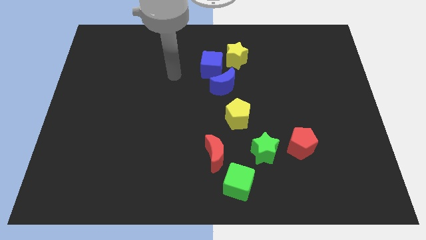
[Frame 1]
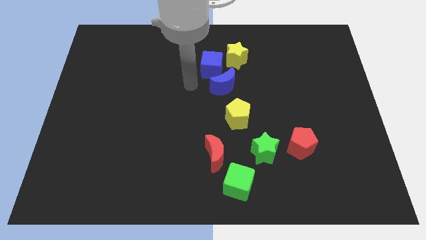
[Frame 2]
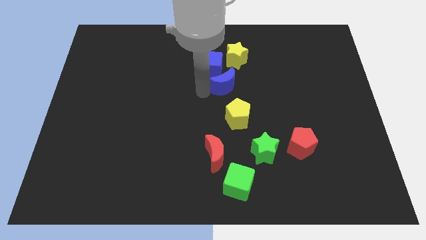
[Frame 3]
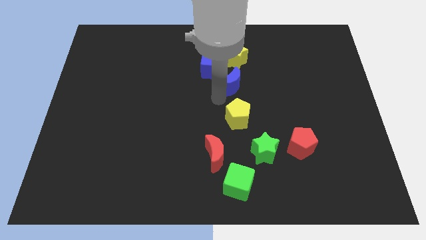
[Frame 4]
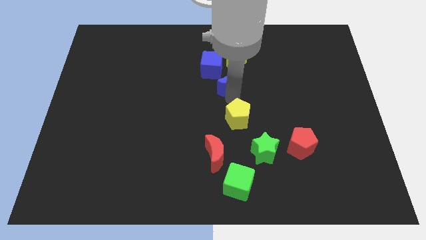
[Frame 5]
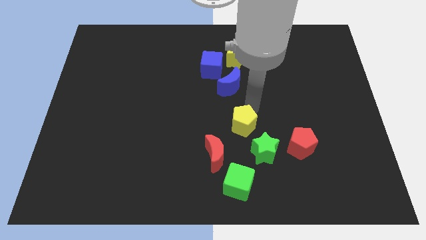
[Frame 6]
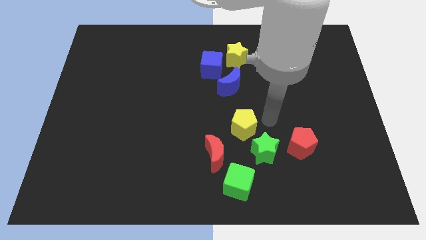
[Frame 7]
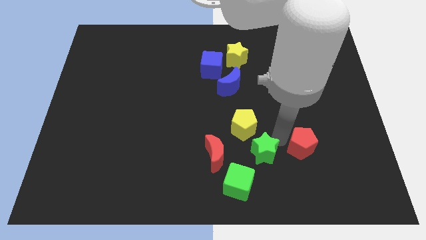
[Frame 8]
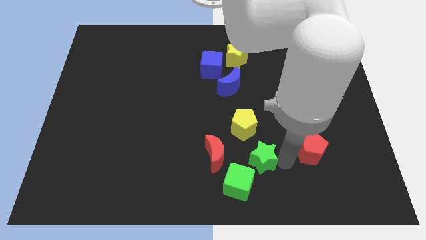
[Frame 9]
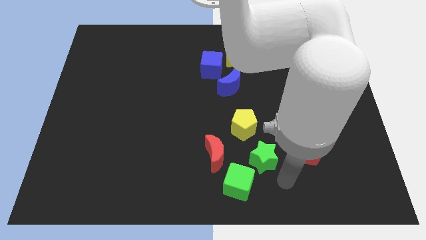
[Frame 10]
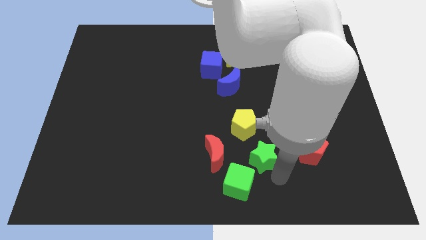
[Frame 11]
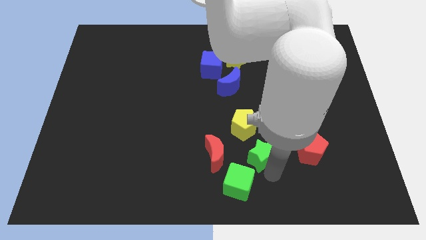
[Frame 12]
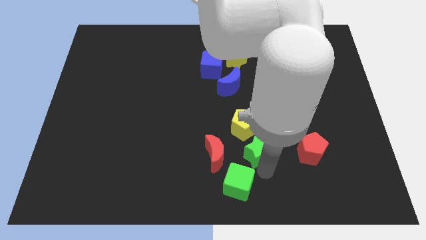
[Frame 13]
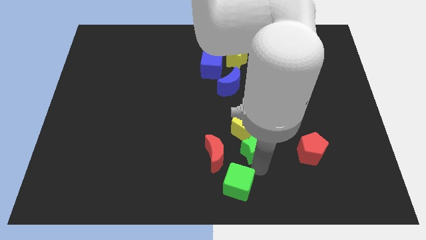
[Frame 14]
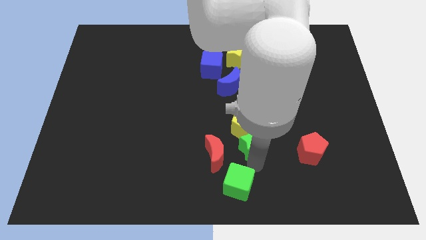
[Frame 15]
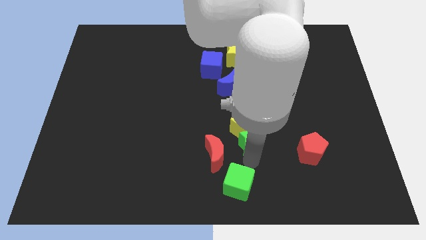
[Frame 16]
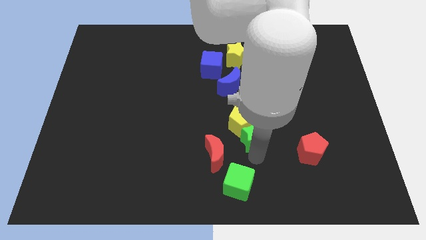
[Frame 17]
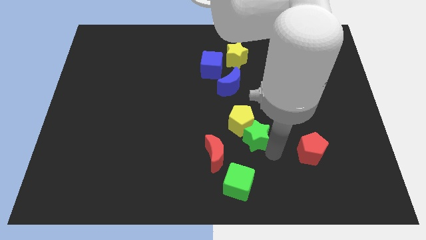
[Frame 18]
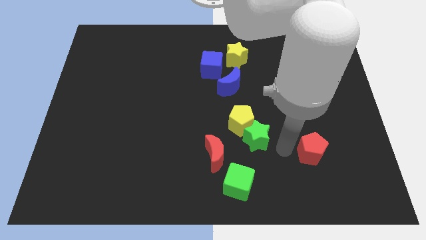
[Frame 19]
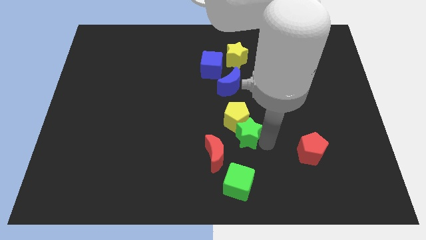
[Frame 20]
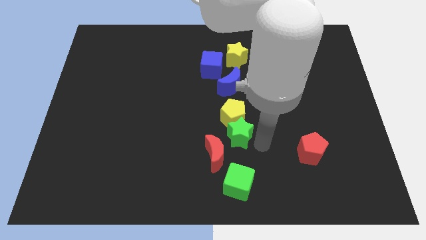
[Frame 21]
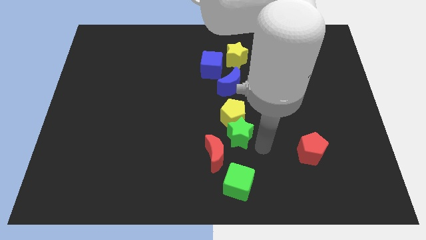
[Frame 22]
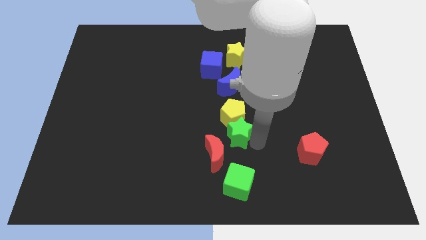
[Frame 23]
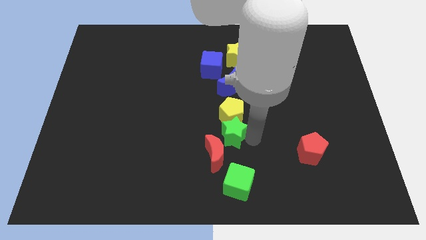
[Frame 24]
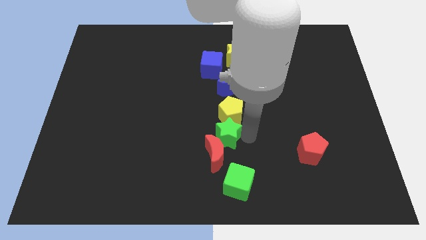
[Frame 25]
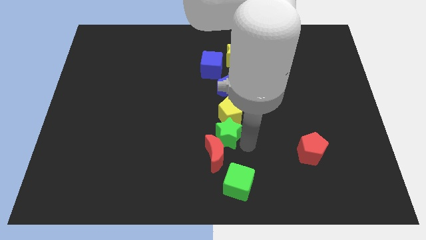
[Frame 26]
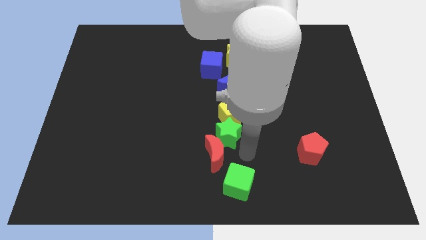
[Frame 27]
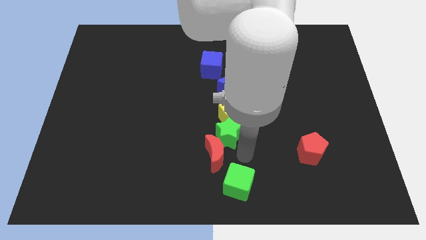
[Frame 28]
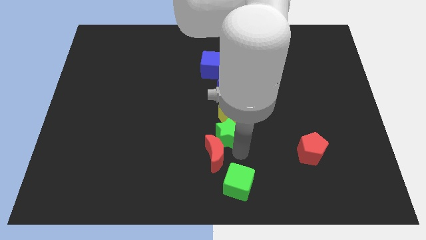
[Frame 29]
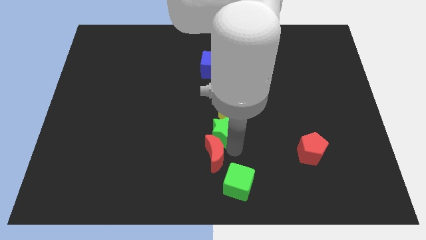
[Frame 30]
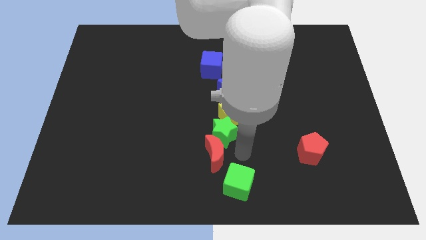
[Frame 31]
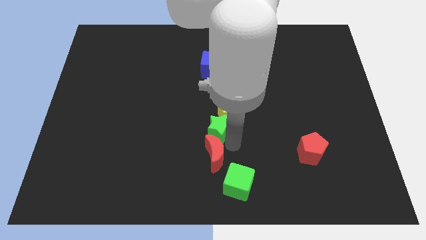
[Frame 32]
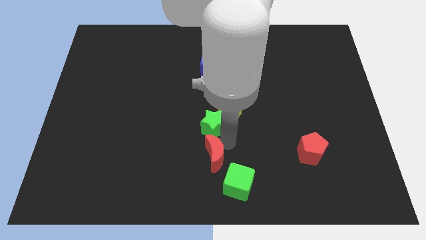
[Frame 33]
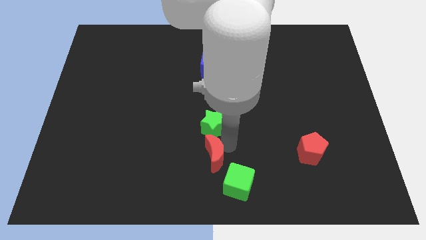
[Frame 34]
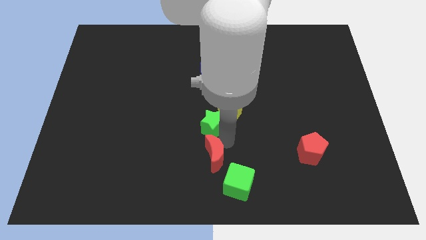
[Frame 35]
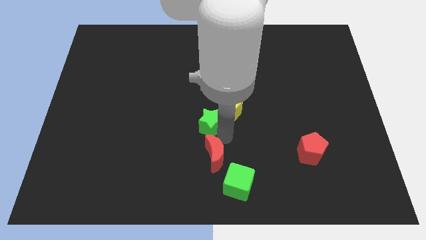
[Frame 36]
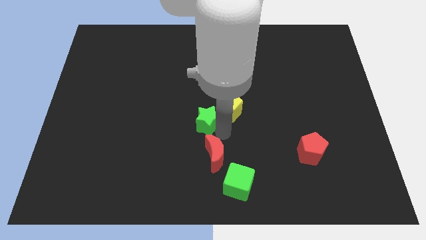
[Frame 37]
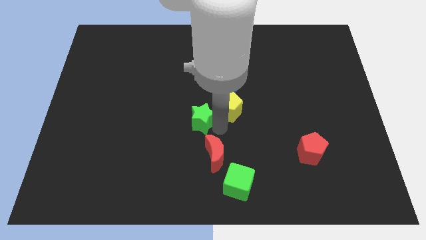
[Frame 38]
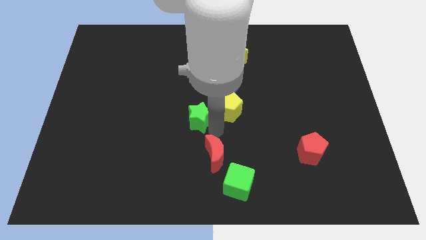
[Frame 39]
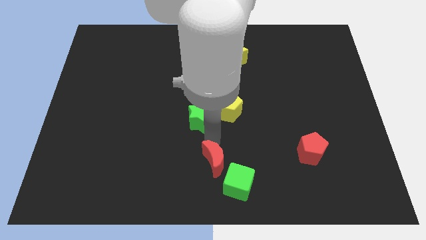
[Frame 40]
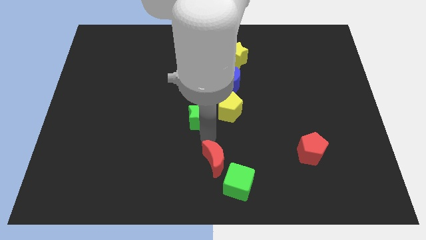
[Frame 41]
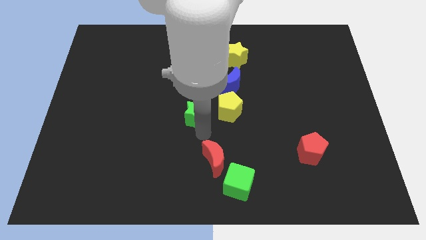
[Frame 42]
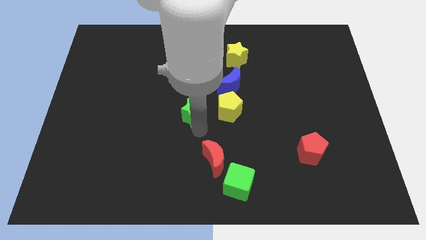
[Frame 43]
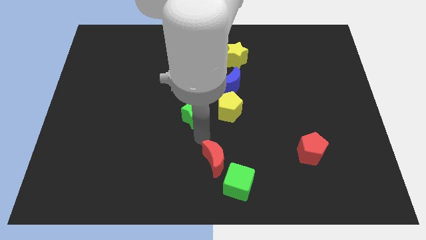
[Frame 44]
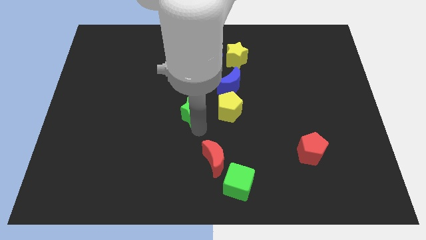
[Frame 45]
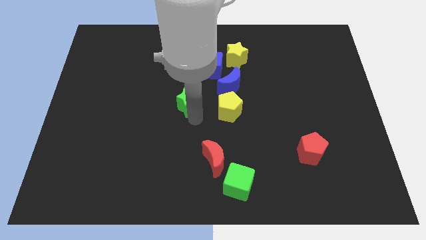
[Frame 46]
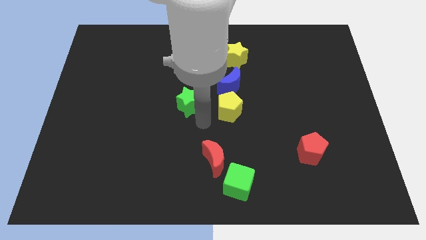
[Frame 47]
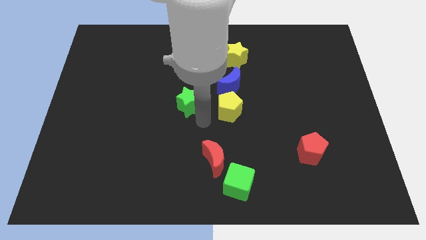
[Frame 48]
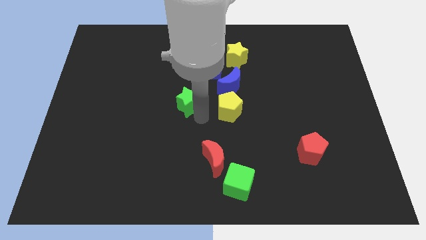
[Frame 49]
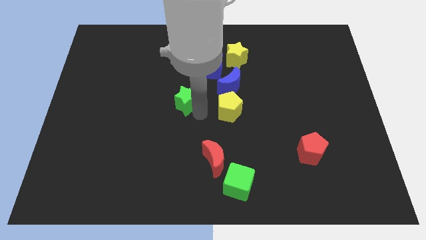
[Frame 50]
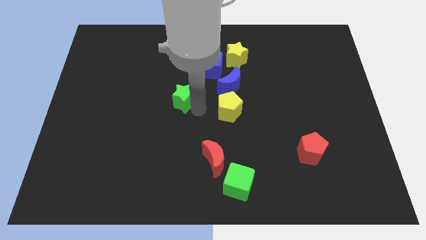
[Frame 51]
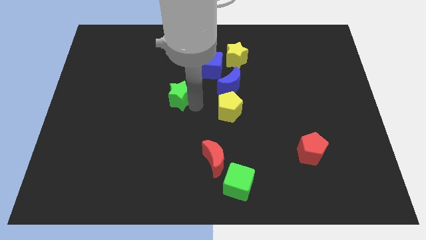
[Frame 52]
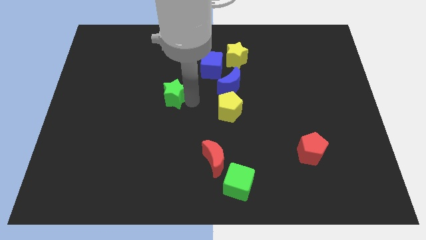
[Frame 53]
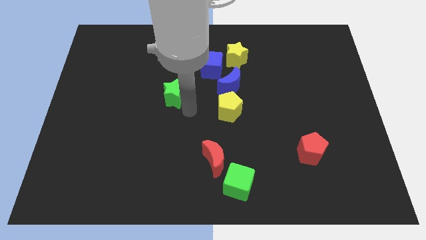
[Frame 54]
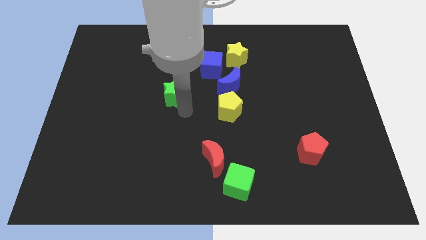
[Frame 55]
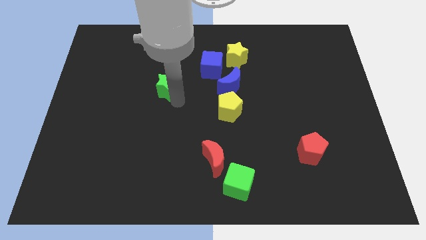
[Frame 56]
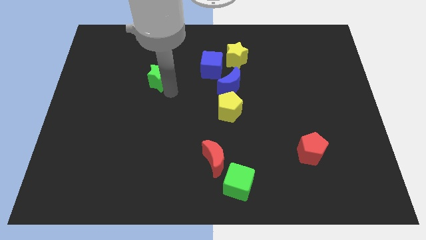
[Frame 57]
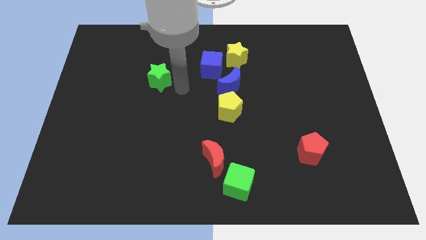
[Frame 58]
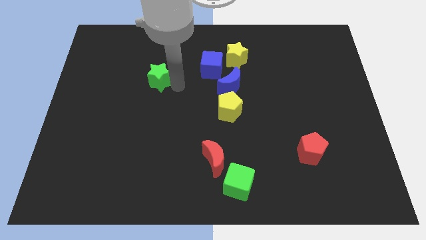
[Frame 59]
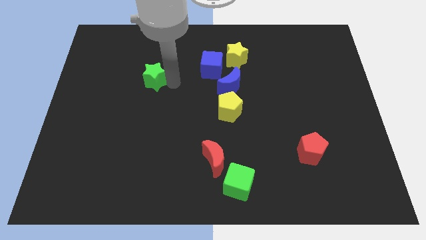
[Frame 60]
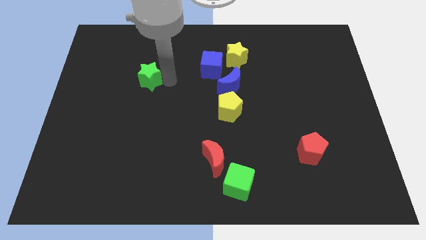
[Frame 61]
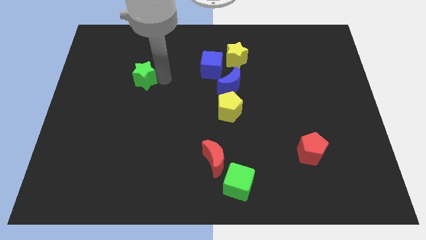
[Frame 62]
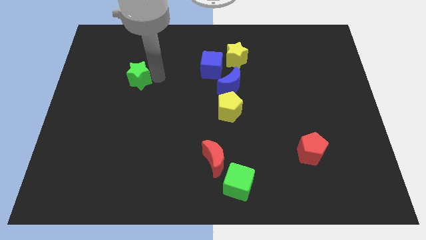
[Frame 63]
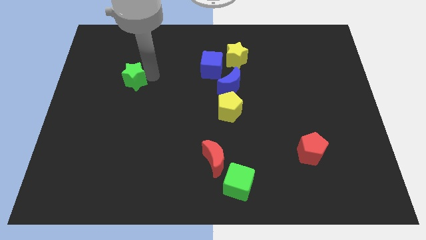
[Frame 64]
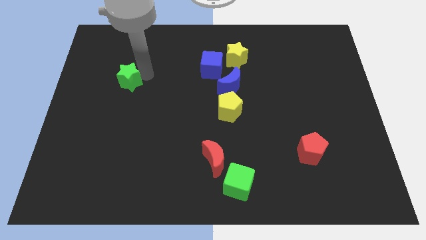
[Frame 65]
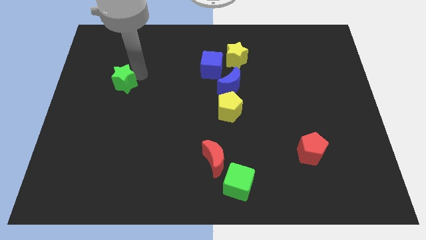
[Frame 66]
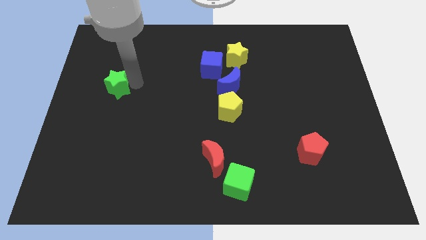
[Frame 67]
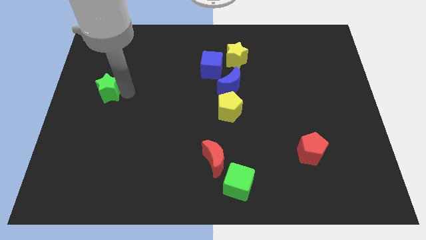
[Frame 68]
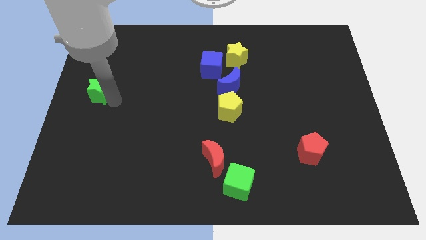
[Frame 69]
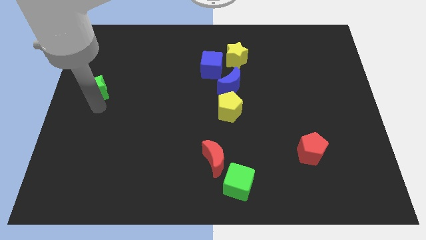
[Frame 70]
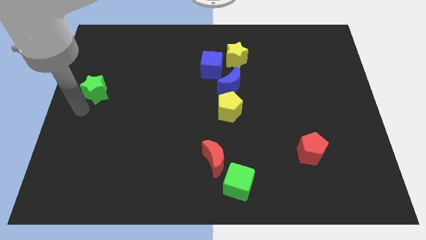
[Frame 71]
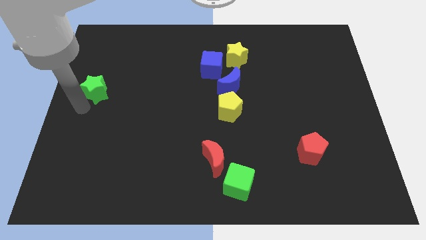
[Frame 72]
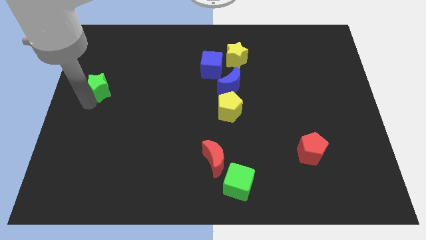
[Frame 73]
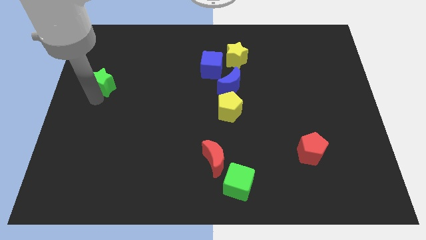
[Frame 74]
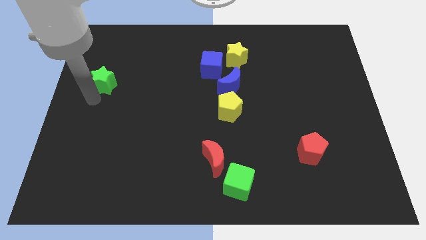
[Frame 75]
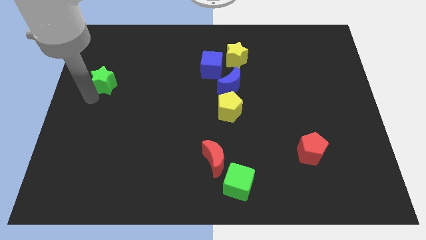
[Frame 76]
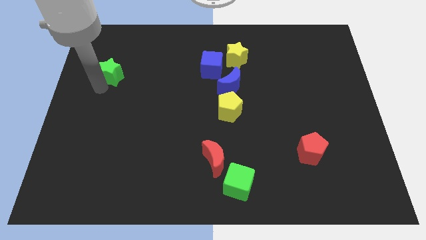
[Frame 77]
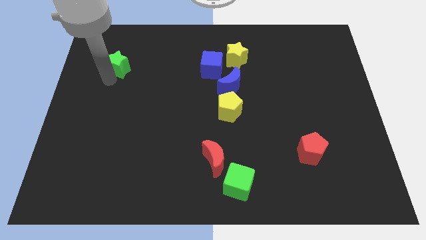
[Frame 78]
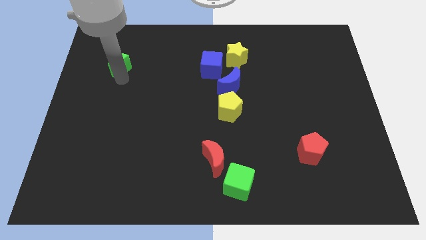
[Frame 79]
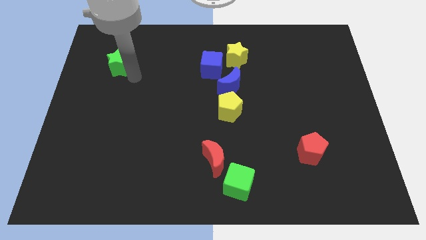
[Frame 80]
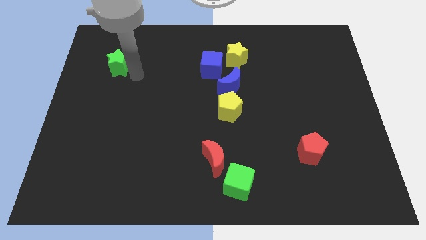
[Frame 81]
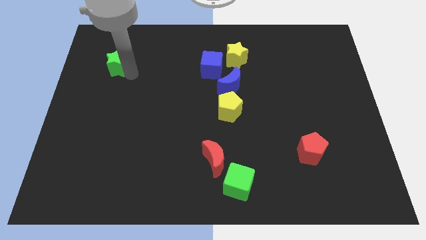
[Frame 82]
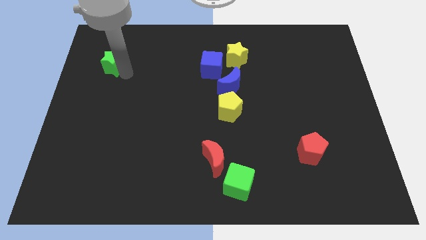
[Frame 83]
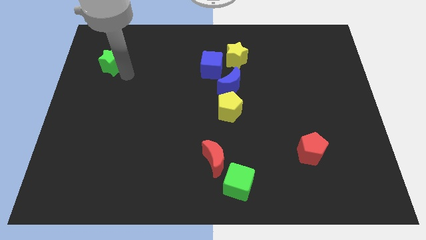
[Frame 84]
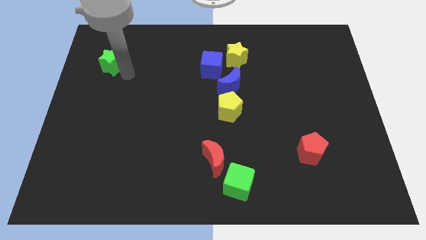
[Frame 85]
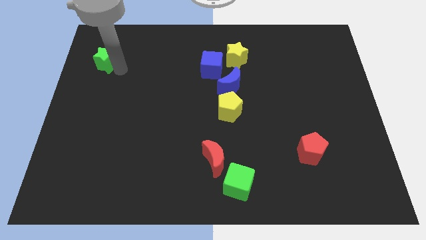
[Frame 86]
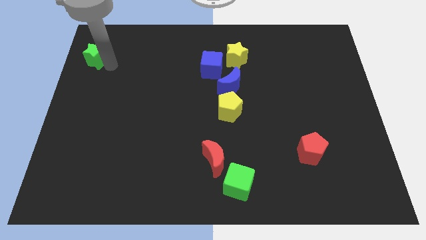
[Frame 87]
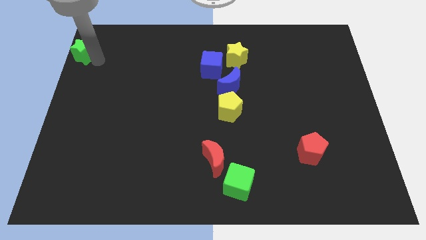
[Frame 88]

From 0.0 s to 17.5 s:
slide the green star to the upper left corner
